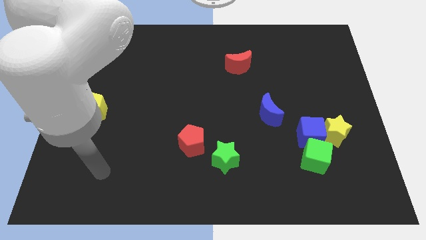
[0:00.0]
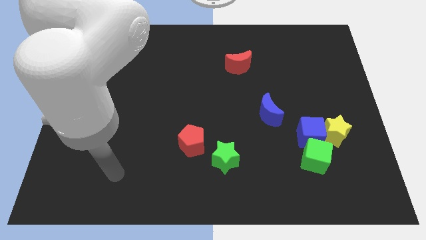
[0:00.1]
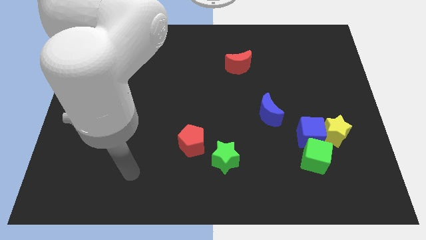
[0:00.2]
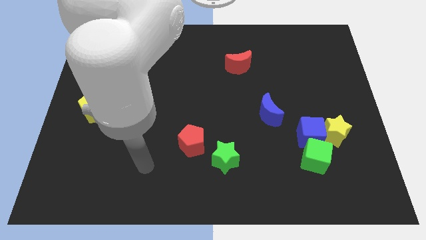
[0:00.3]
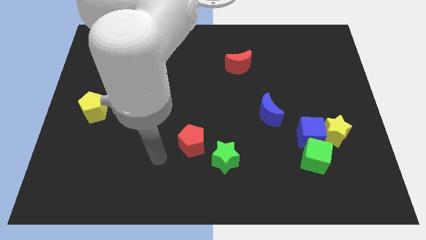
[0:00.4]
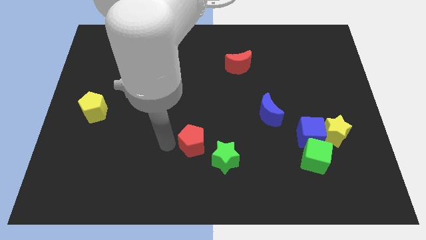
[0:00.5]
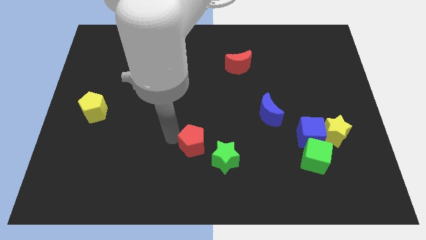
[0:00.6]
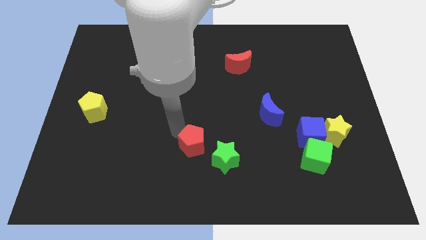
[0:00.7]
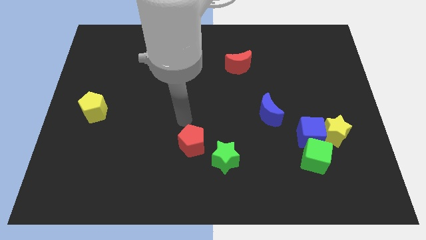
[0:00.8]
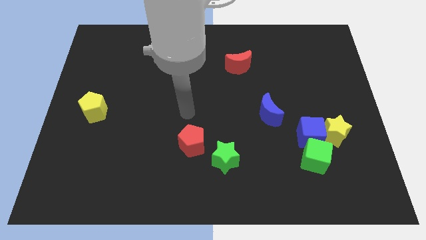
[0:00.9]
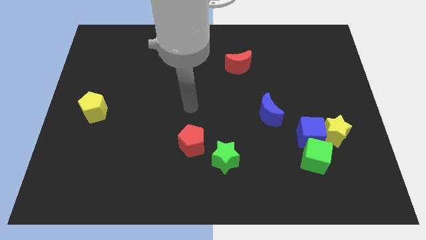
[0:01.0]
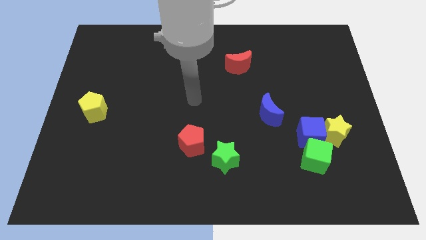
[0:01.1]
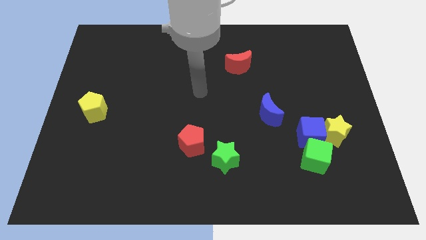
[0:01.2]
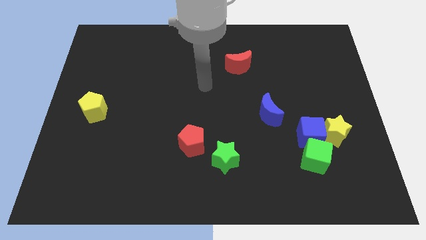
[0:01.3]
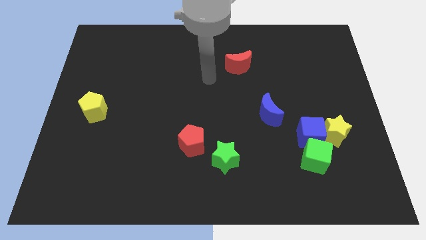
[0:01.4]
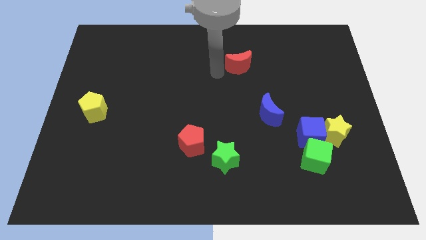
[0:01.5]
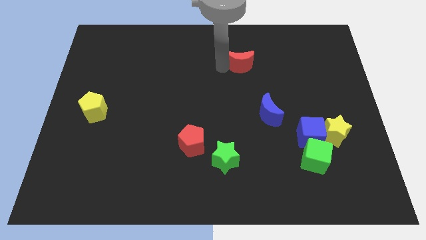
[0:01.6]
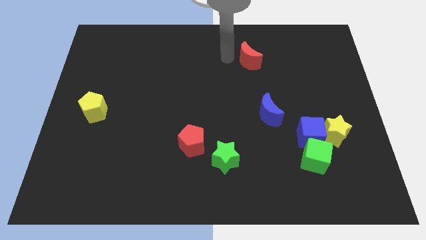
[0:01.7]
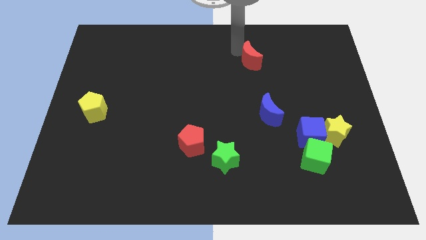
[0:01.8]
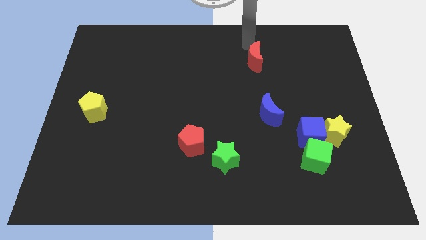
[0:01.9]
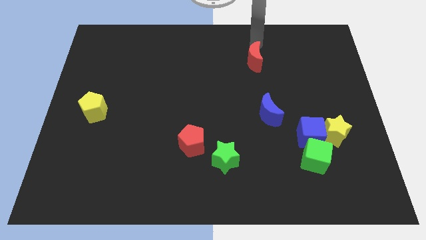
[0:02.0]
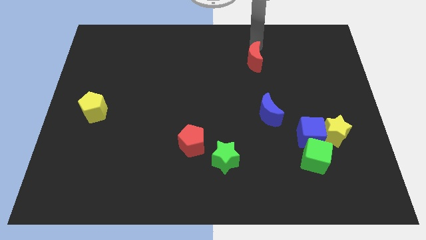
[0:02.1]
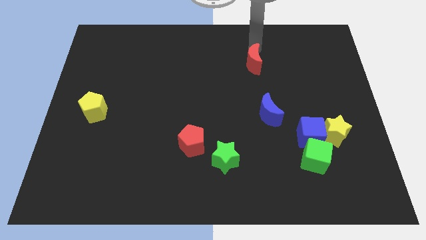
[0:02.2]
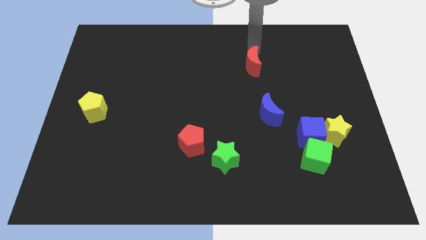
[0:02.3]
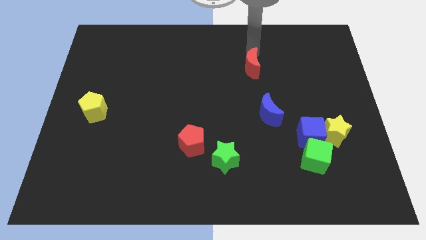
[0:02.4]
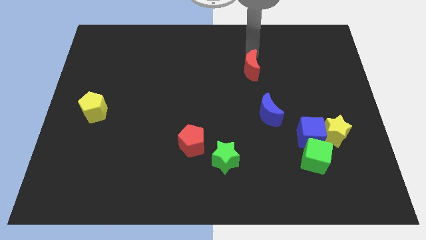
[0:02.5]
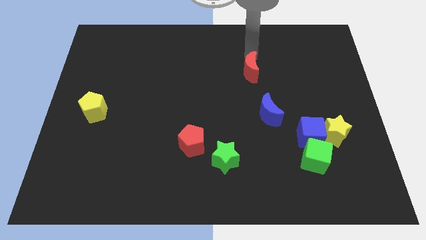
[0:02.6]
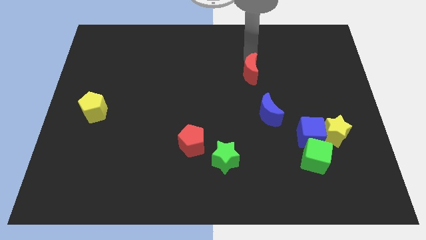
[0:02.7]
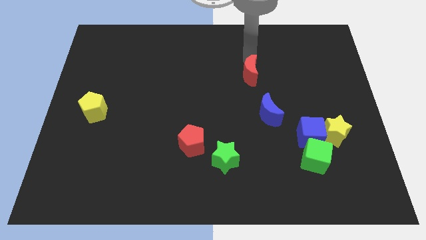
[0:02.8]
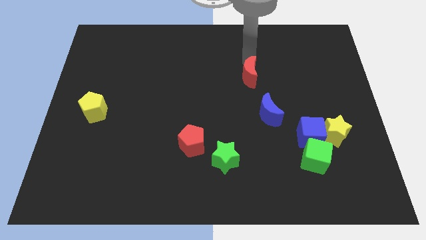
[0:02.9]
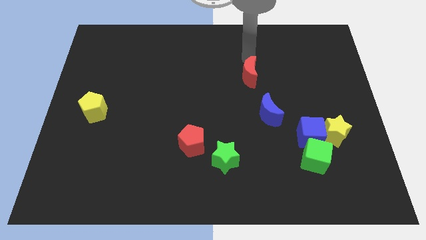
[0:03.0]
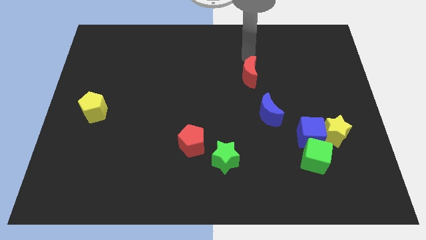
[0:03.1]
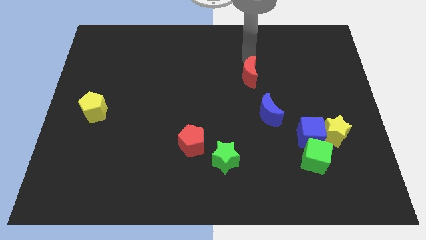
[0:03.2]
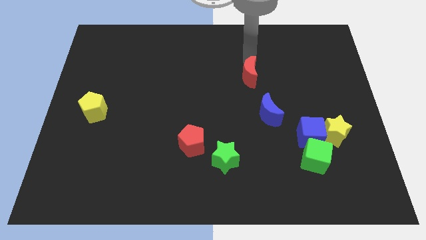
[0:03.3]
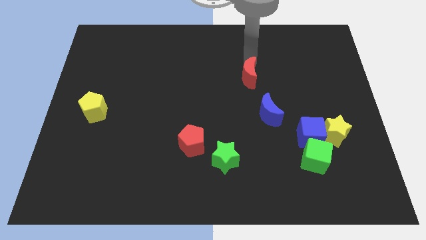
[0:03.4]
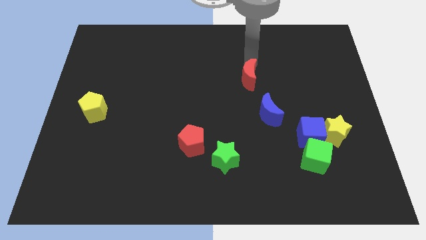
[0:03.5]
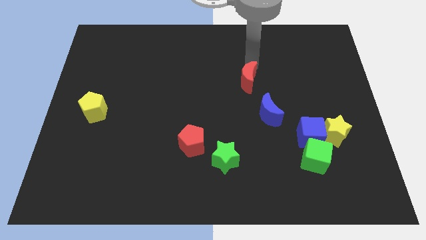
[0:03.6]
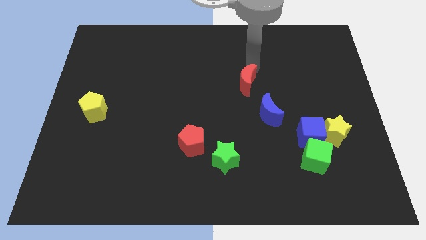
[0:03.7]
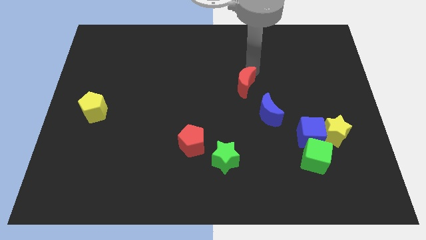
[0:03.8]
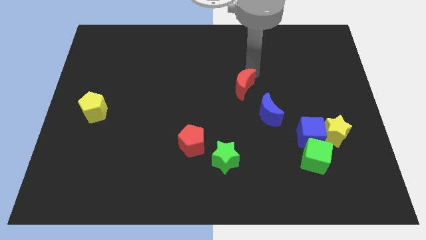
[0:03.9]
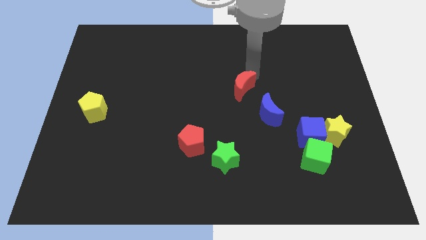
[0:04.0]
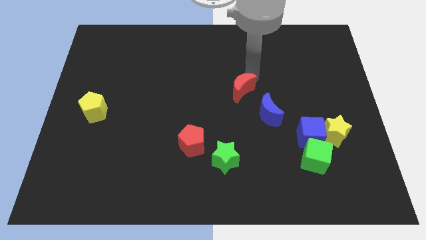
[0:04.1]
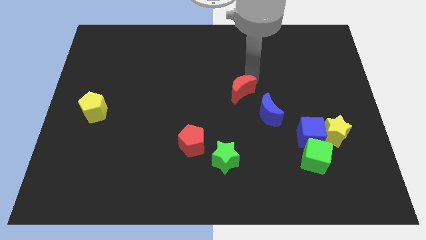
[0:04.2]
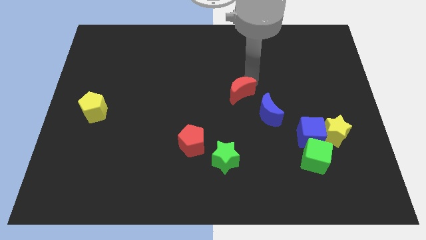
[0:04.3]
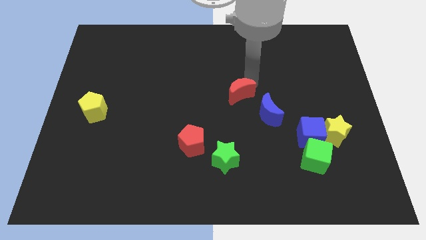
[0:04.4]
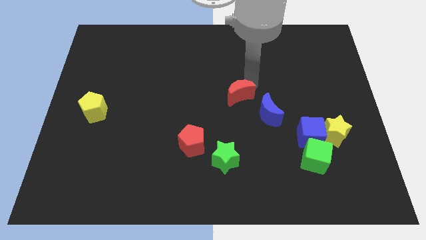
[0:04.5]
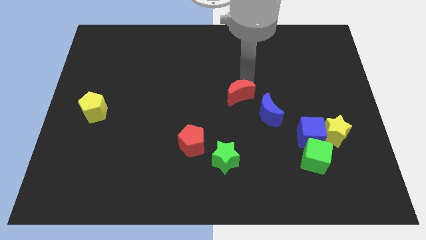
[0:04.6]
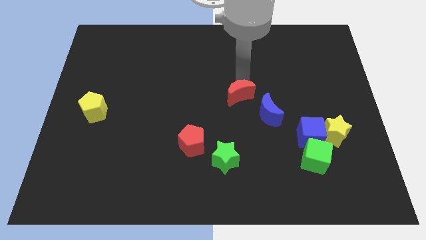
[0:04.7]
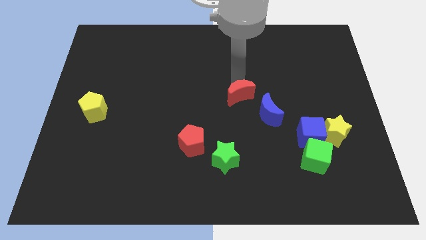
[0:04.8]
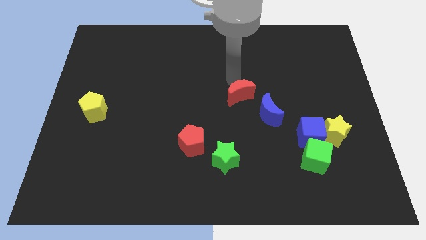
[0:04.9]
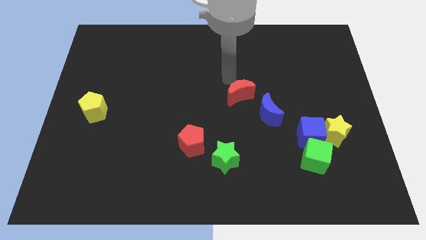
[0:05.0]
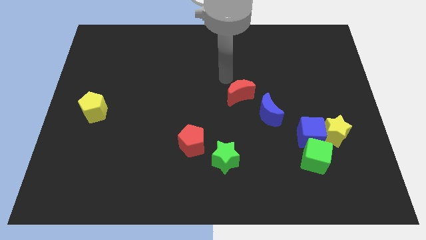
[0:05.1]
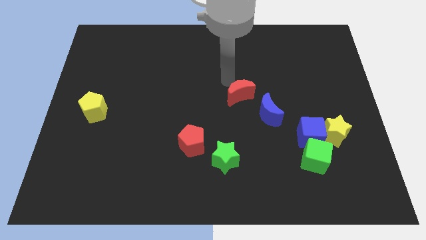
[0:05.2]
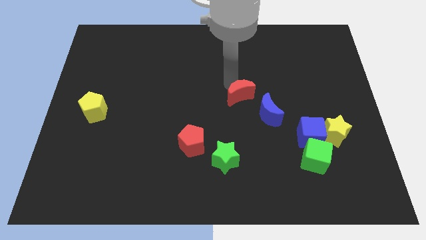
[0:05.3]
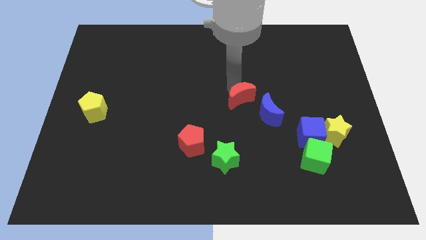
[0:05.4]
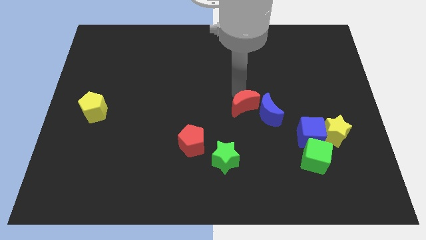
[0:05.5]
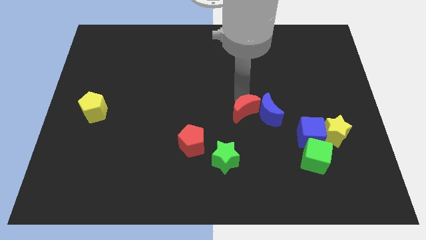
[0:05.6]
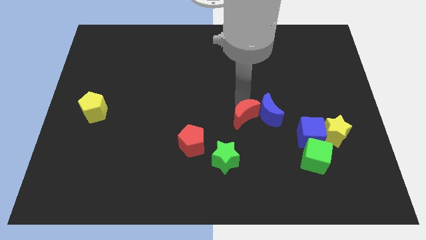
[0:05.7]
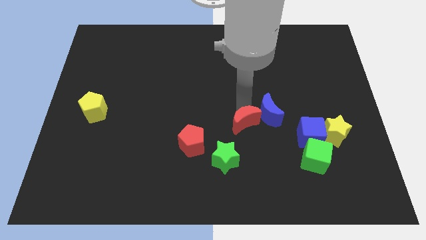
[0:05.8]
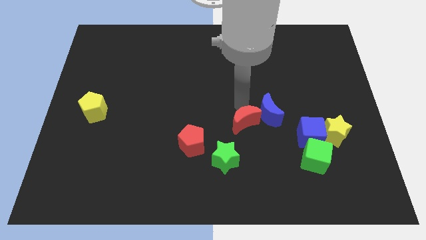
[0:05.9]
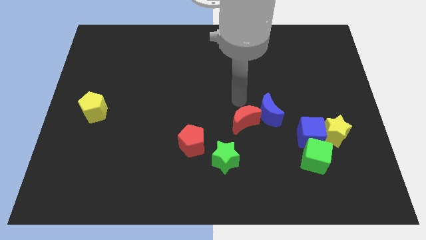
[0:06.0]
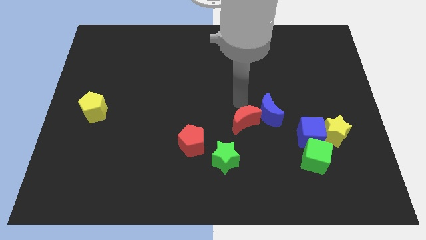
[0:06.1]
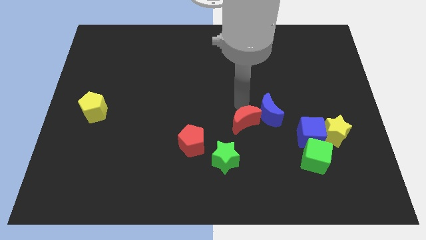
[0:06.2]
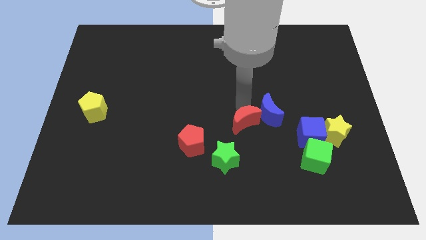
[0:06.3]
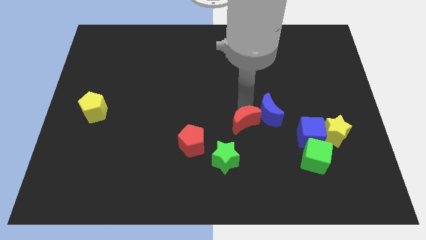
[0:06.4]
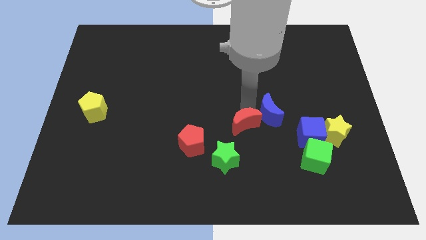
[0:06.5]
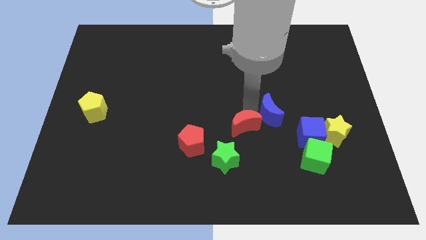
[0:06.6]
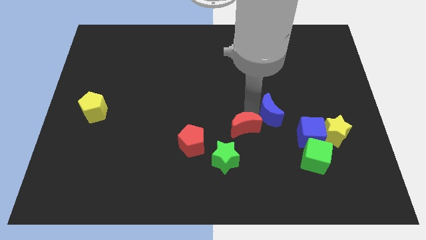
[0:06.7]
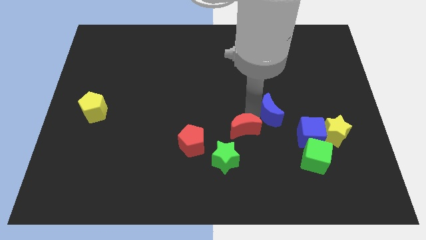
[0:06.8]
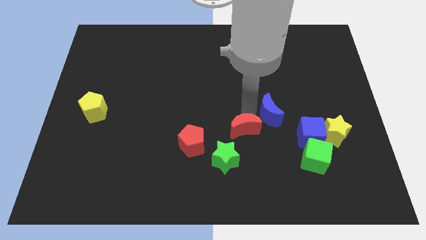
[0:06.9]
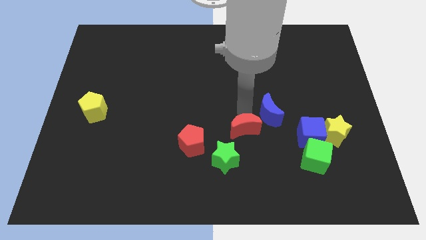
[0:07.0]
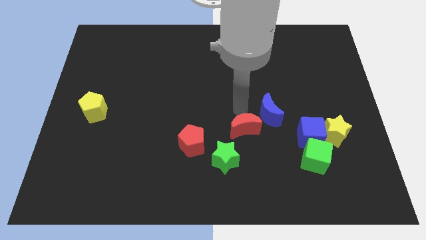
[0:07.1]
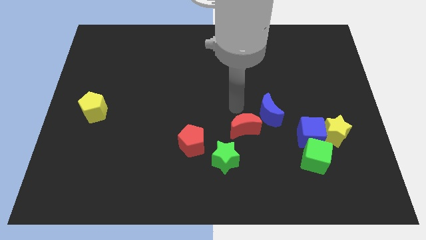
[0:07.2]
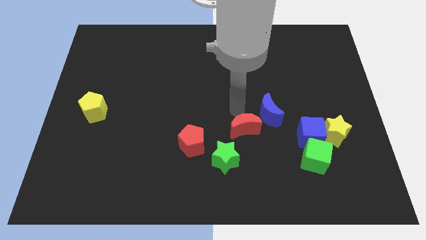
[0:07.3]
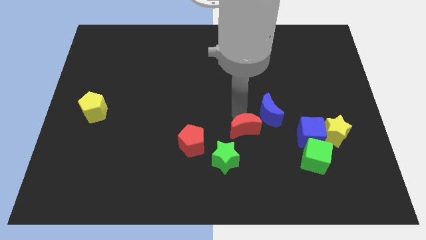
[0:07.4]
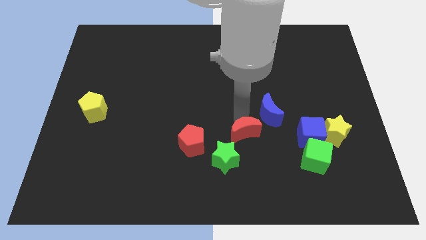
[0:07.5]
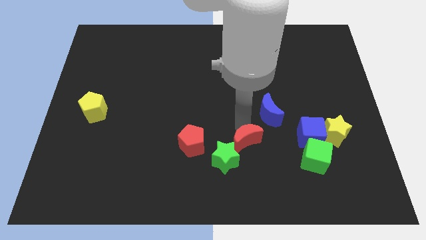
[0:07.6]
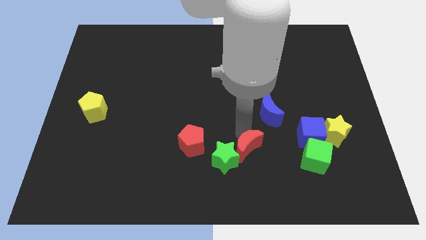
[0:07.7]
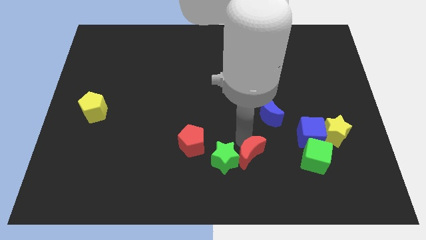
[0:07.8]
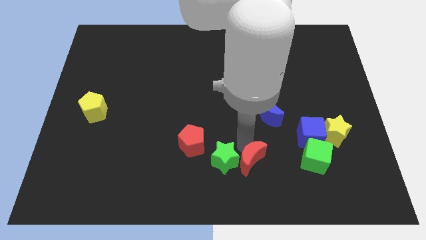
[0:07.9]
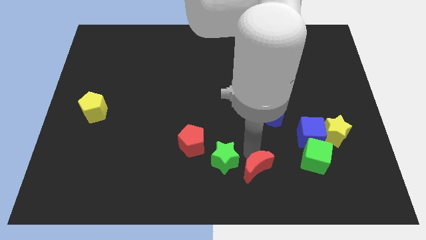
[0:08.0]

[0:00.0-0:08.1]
push the red moon to the bottom side
